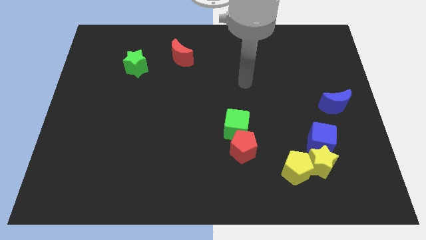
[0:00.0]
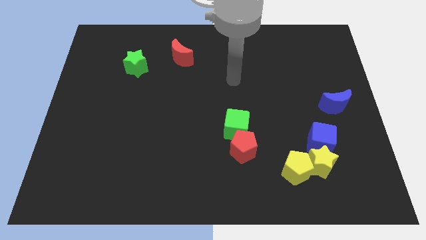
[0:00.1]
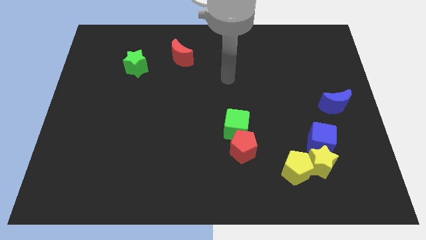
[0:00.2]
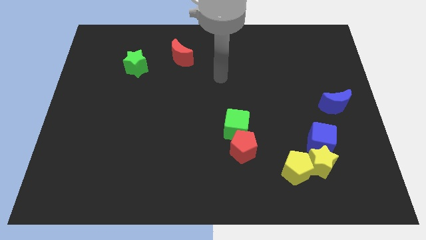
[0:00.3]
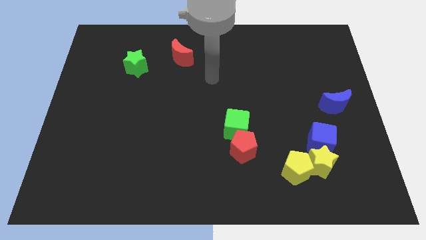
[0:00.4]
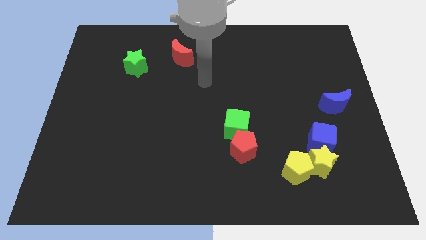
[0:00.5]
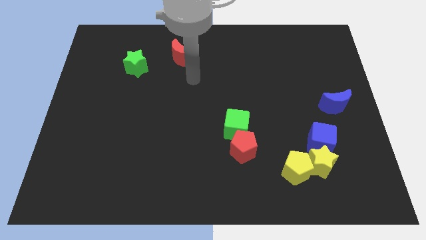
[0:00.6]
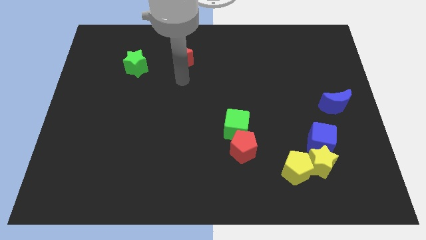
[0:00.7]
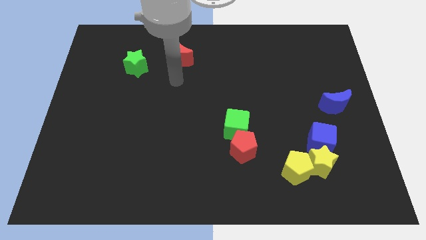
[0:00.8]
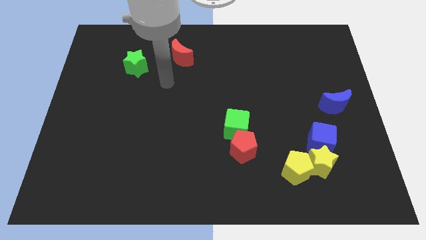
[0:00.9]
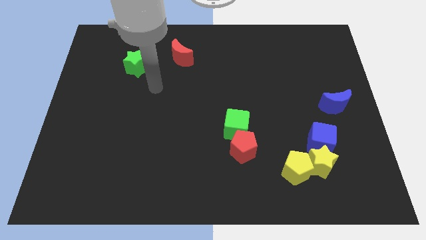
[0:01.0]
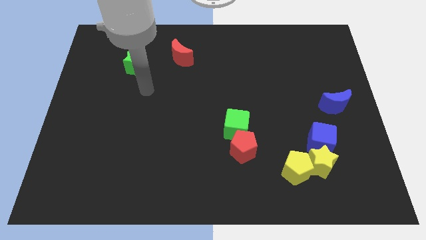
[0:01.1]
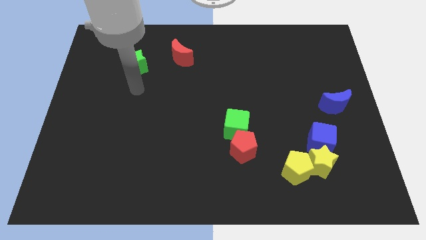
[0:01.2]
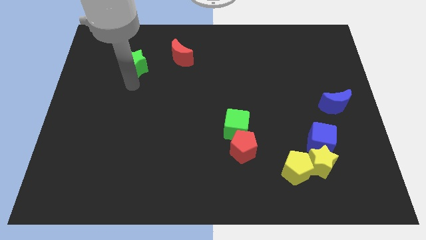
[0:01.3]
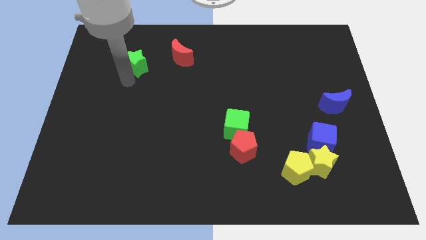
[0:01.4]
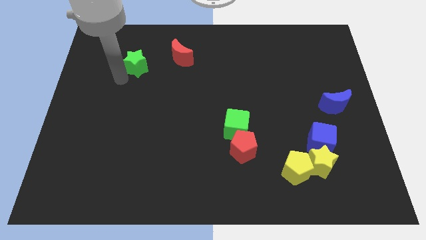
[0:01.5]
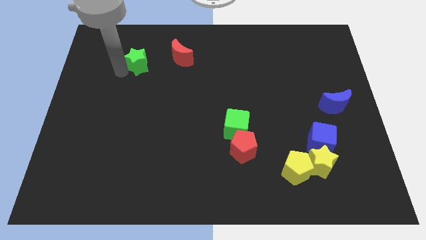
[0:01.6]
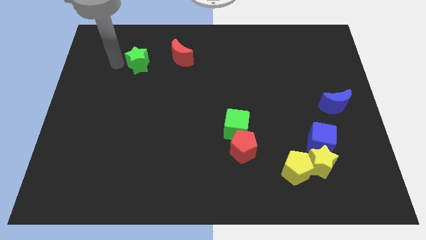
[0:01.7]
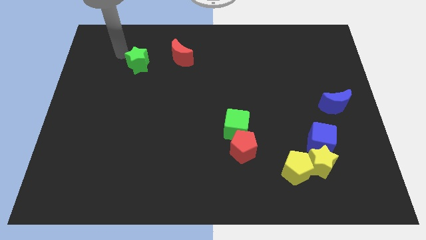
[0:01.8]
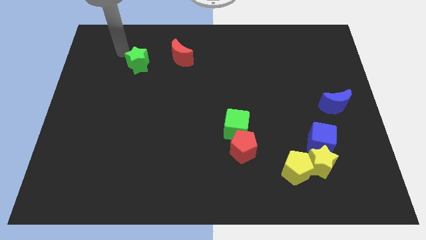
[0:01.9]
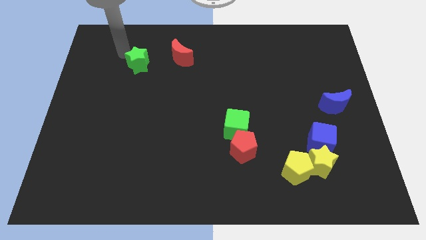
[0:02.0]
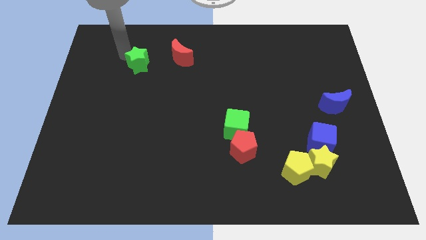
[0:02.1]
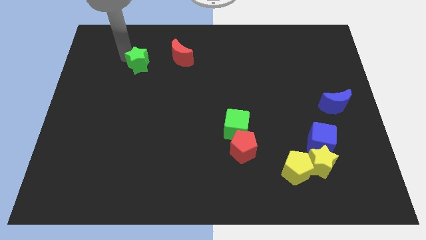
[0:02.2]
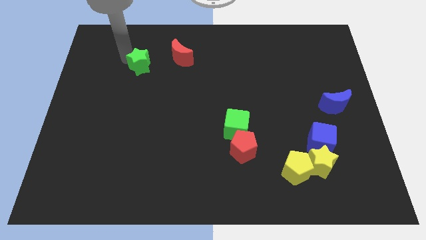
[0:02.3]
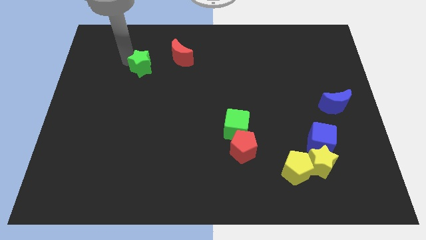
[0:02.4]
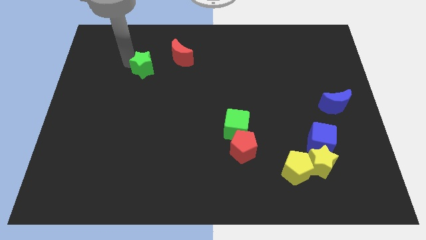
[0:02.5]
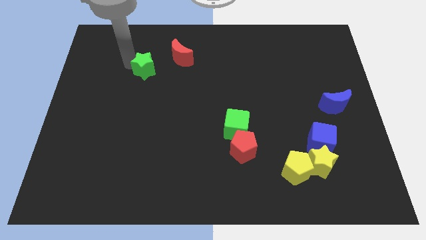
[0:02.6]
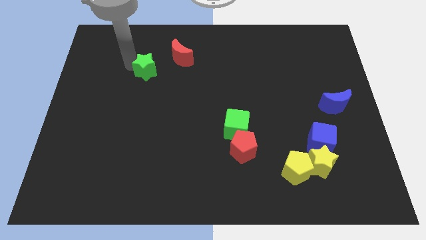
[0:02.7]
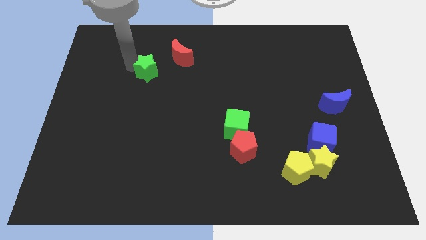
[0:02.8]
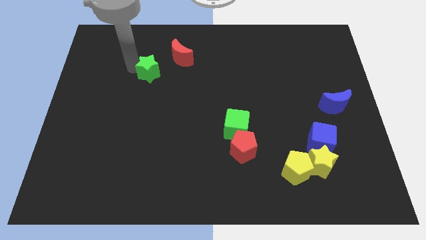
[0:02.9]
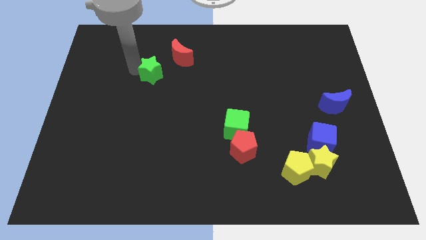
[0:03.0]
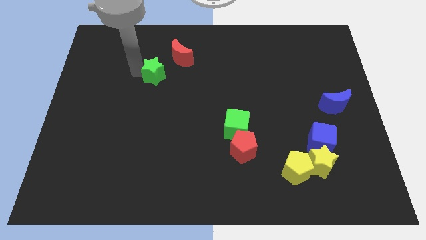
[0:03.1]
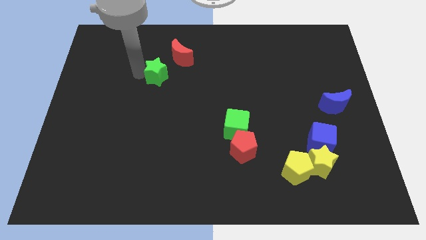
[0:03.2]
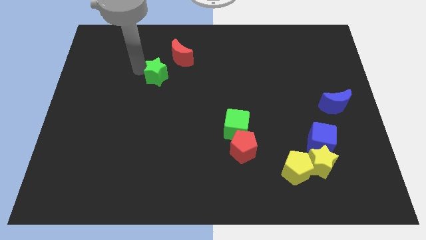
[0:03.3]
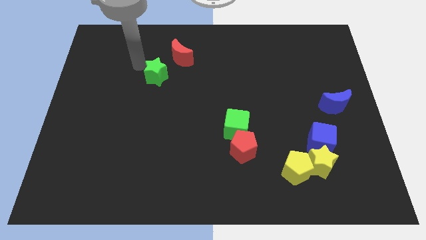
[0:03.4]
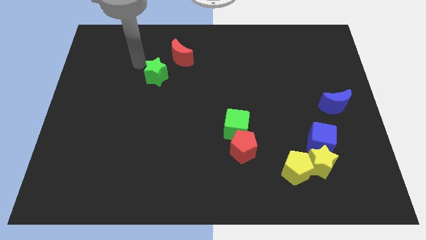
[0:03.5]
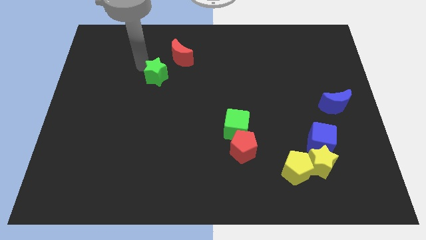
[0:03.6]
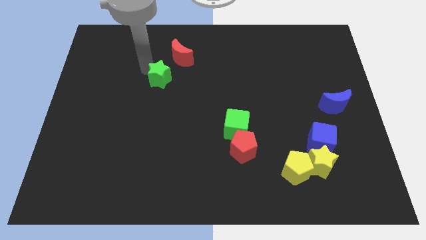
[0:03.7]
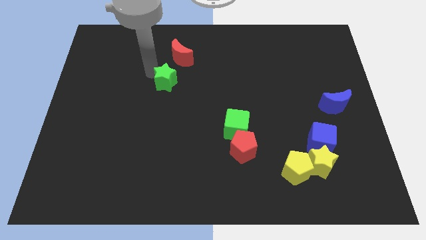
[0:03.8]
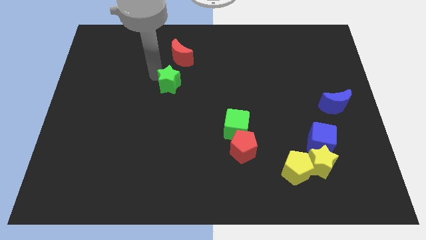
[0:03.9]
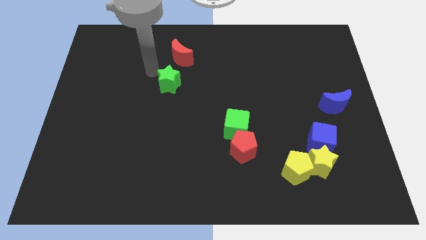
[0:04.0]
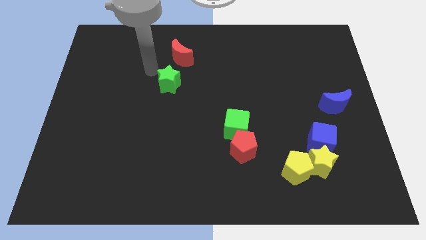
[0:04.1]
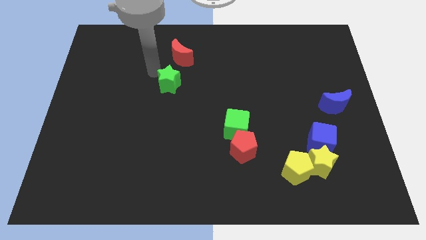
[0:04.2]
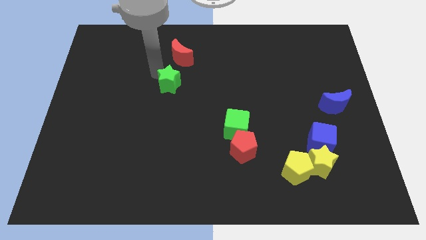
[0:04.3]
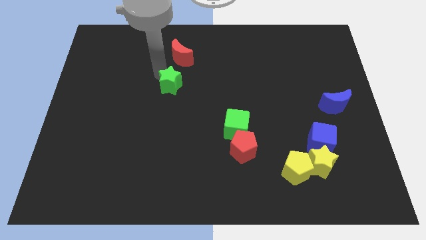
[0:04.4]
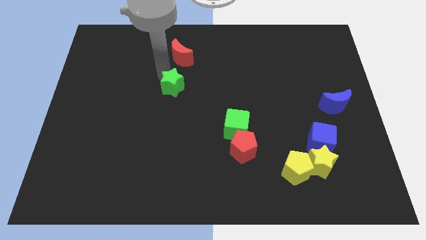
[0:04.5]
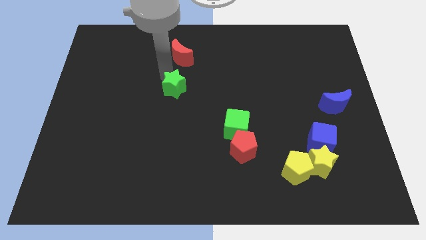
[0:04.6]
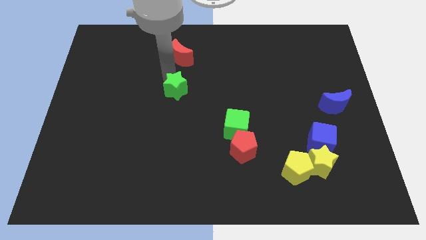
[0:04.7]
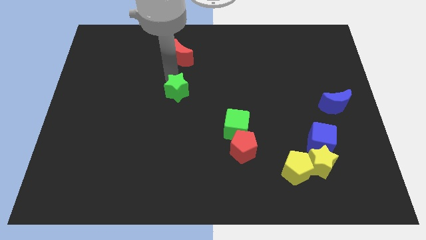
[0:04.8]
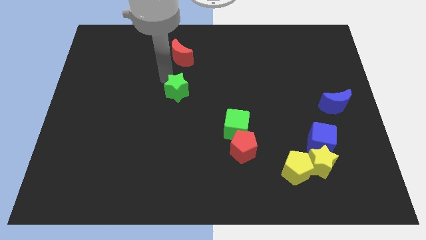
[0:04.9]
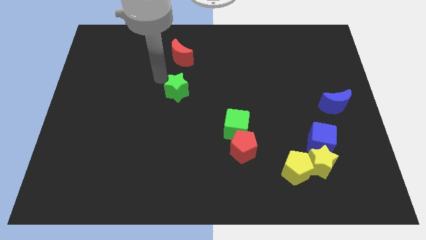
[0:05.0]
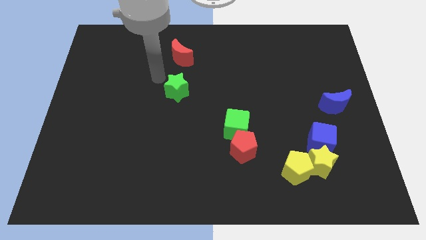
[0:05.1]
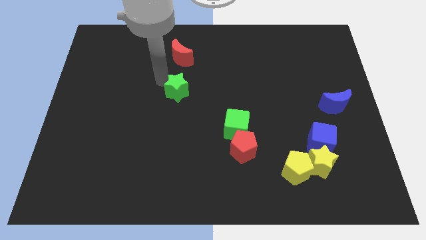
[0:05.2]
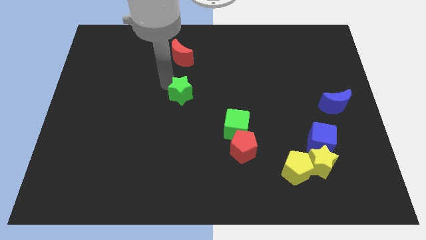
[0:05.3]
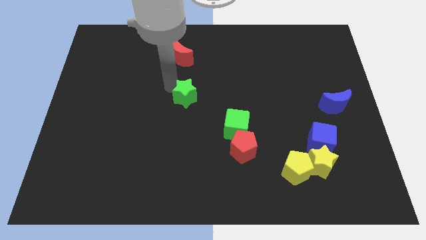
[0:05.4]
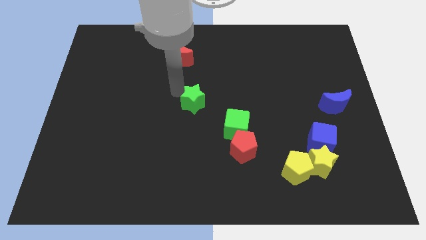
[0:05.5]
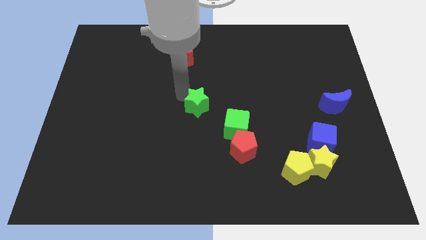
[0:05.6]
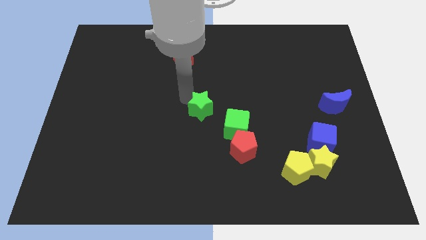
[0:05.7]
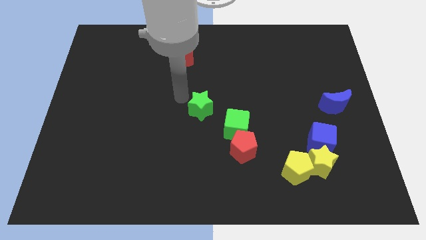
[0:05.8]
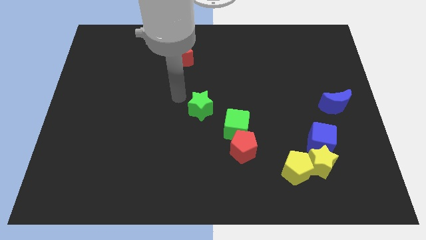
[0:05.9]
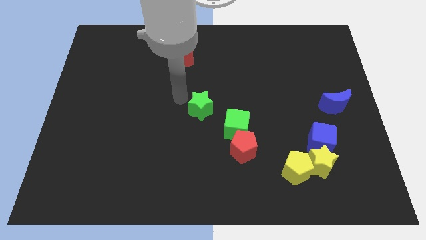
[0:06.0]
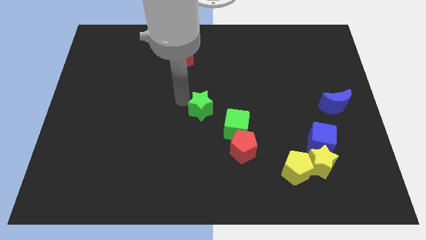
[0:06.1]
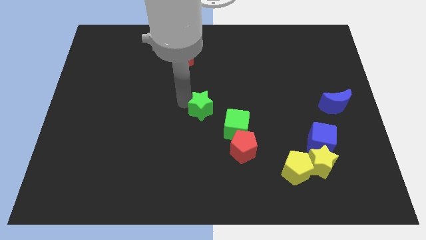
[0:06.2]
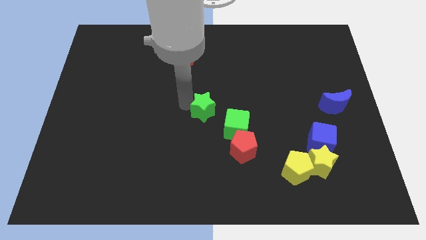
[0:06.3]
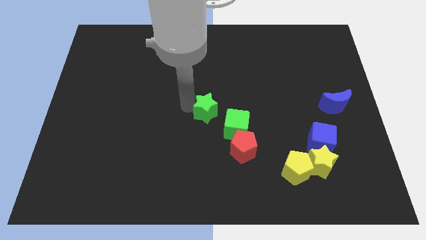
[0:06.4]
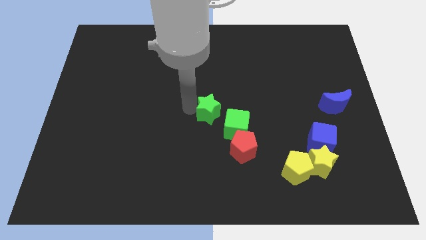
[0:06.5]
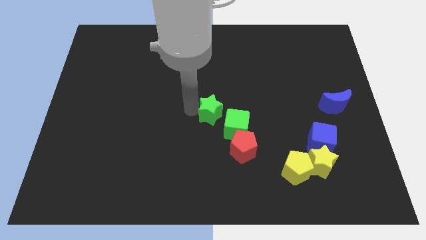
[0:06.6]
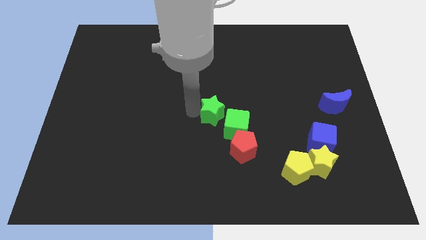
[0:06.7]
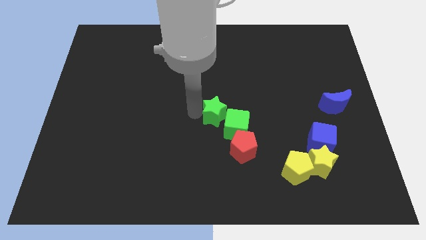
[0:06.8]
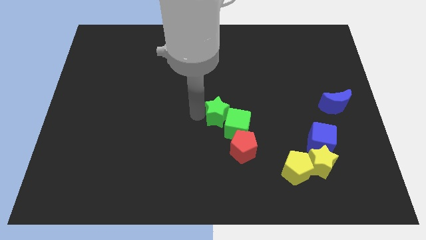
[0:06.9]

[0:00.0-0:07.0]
slide the green star to the green cube
